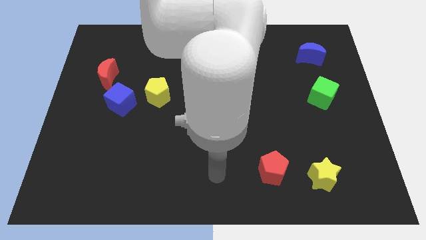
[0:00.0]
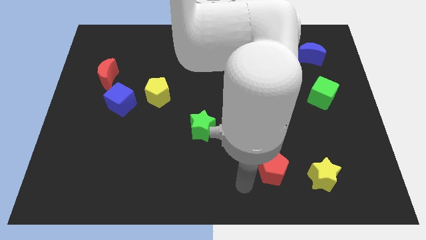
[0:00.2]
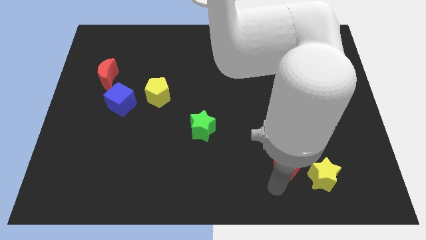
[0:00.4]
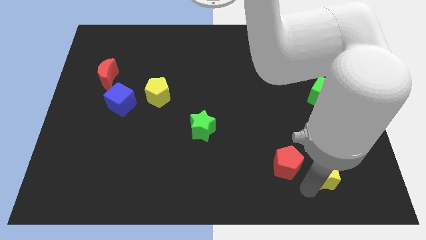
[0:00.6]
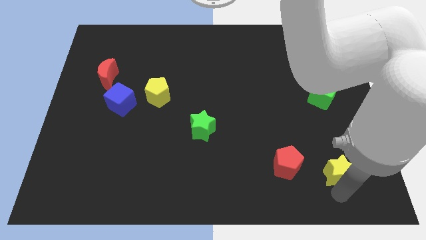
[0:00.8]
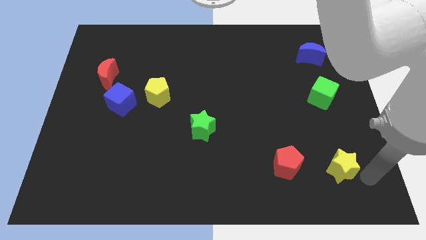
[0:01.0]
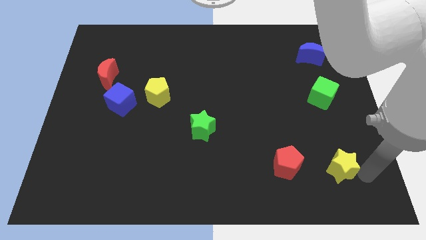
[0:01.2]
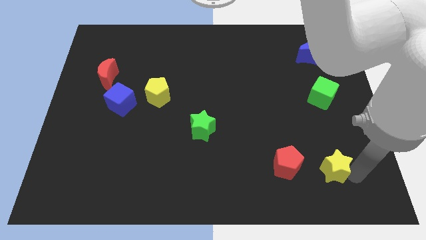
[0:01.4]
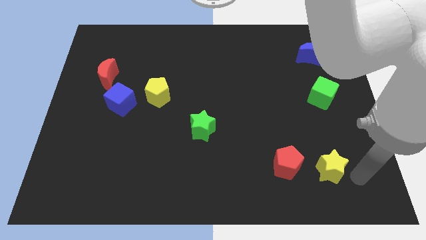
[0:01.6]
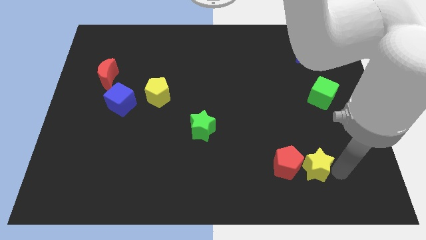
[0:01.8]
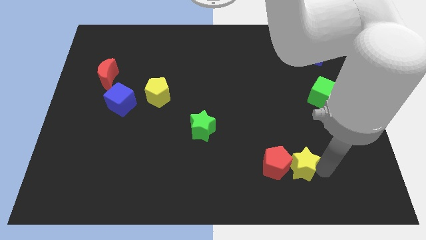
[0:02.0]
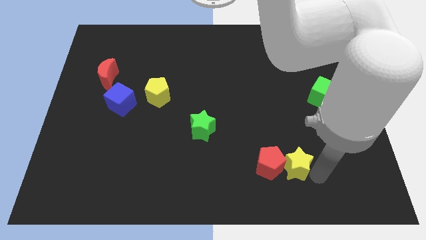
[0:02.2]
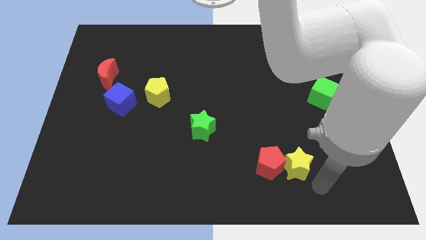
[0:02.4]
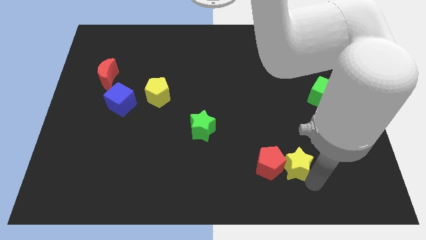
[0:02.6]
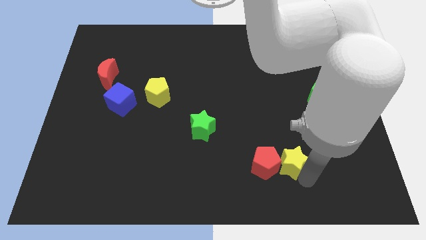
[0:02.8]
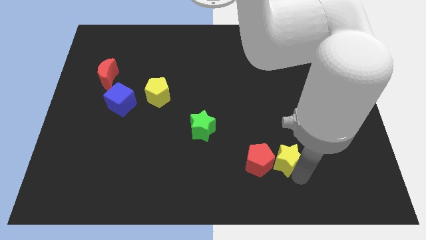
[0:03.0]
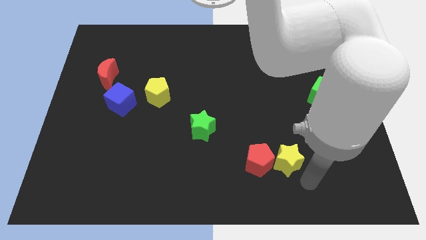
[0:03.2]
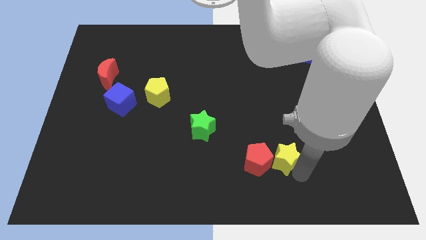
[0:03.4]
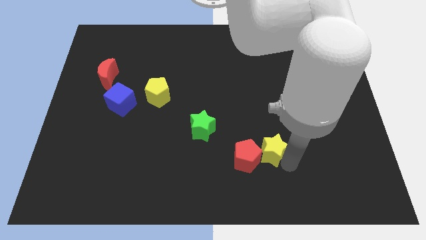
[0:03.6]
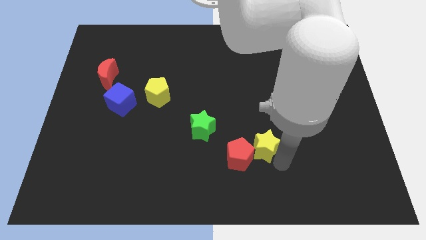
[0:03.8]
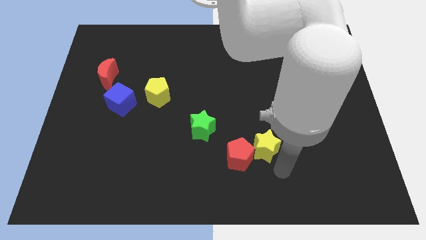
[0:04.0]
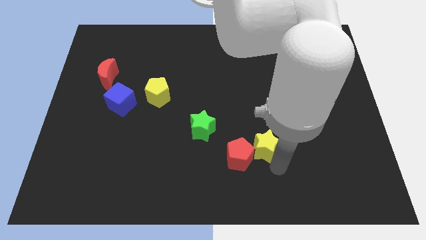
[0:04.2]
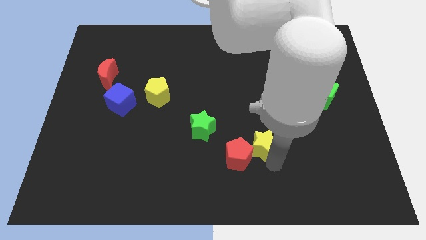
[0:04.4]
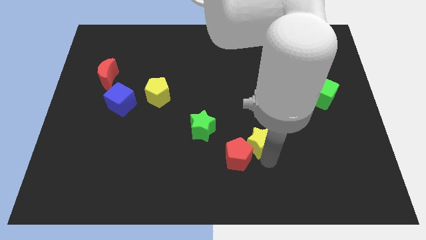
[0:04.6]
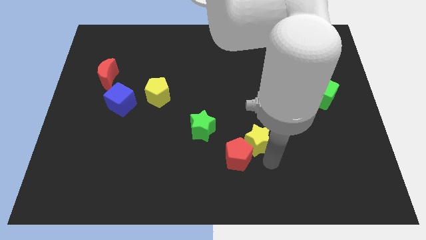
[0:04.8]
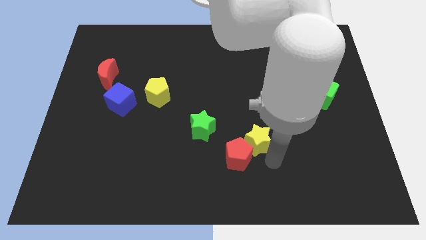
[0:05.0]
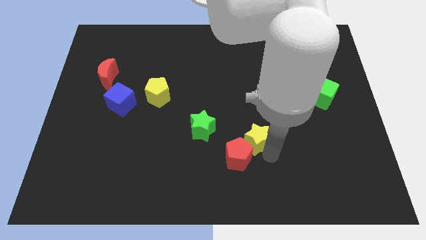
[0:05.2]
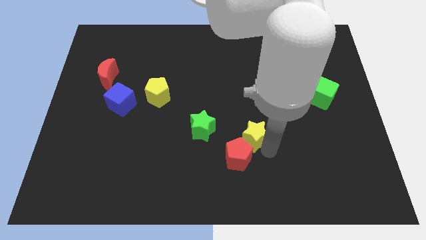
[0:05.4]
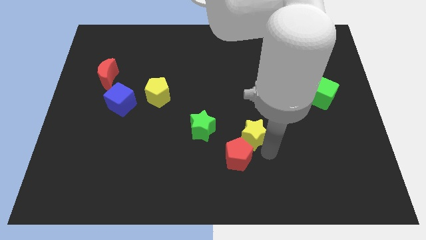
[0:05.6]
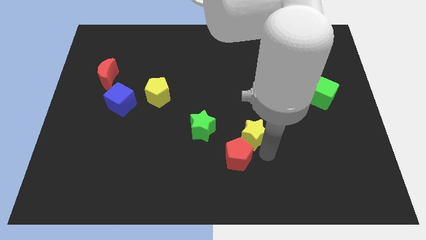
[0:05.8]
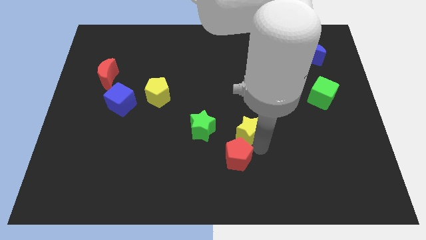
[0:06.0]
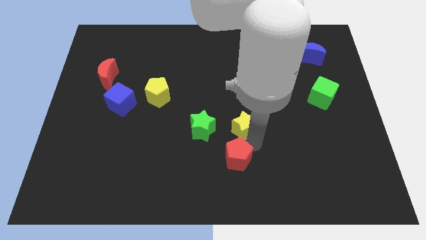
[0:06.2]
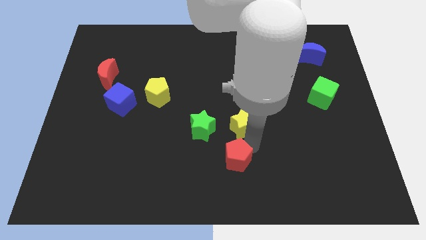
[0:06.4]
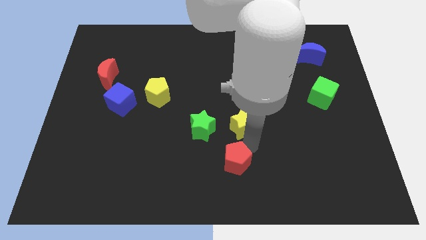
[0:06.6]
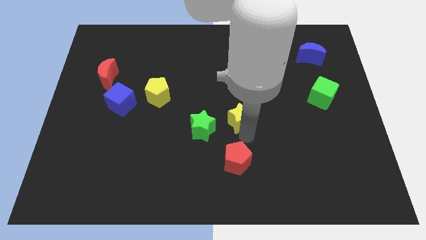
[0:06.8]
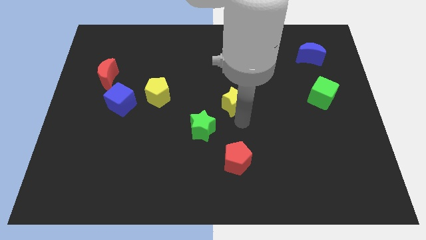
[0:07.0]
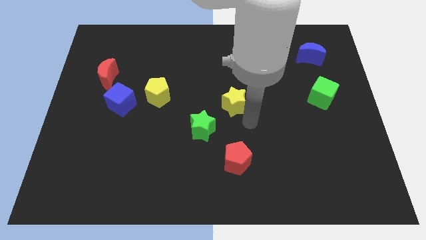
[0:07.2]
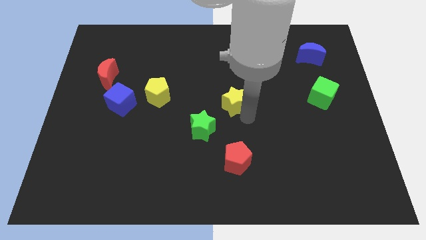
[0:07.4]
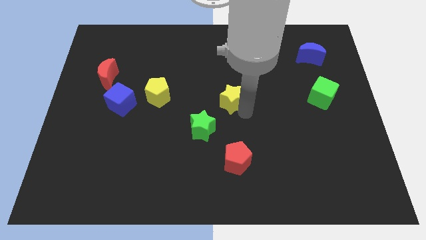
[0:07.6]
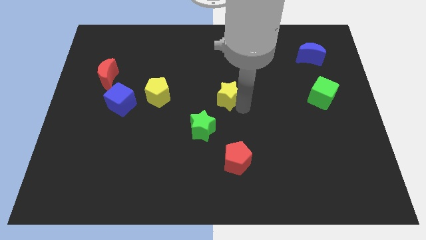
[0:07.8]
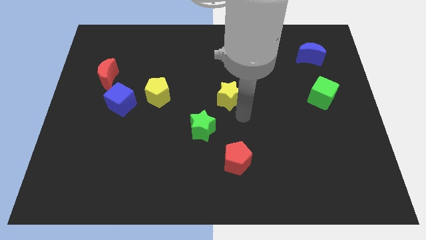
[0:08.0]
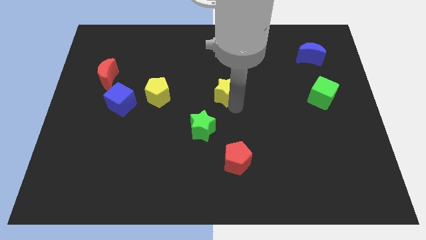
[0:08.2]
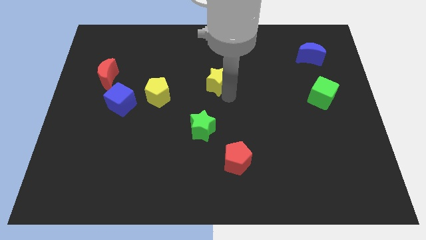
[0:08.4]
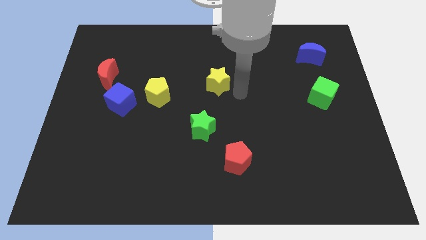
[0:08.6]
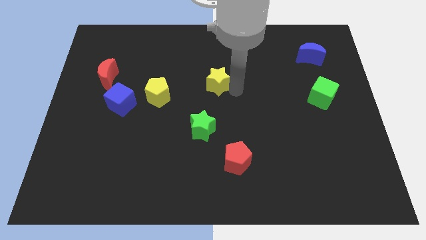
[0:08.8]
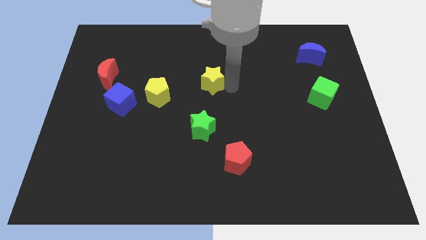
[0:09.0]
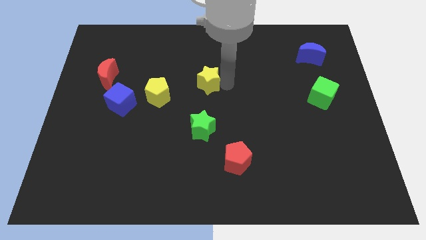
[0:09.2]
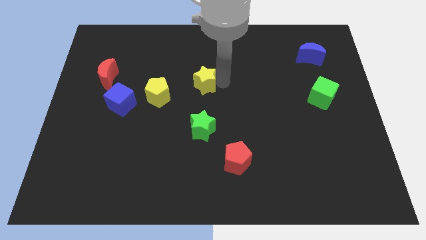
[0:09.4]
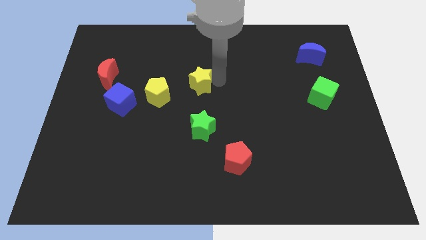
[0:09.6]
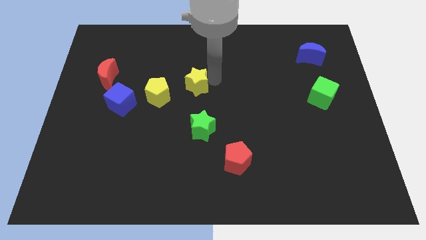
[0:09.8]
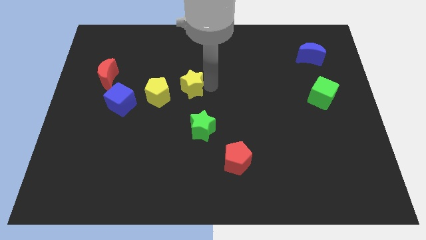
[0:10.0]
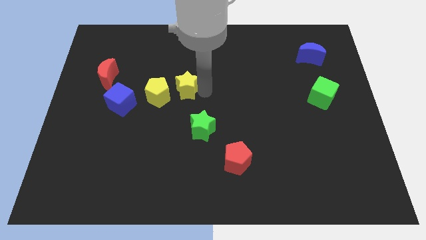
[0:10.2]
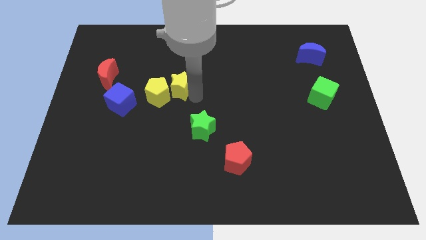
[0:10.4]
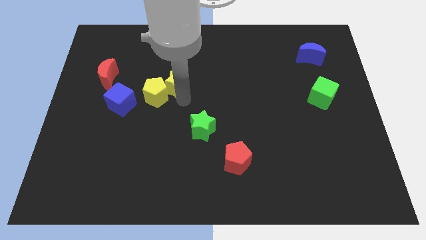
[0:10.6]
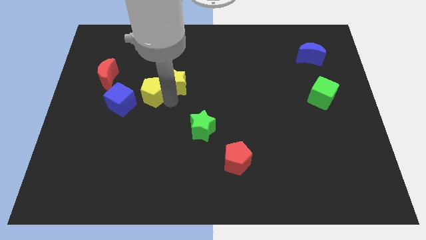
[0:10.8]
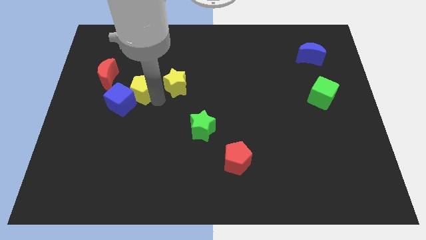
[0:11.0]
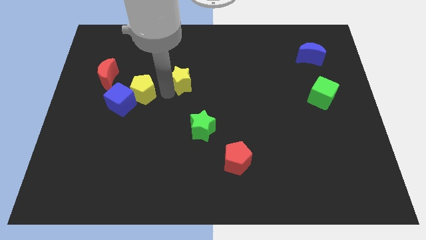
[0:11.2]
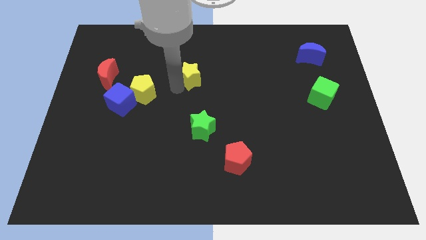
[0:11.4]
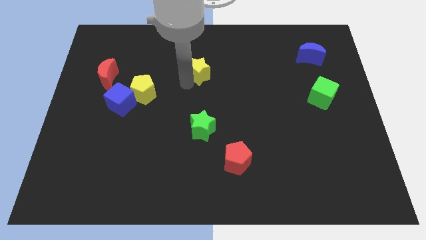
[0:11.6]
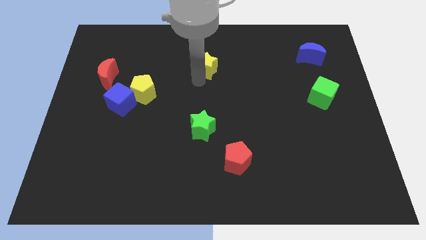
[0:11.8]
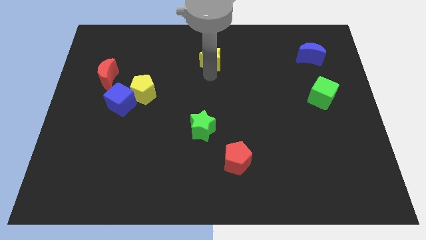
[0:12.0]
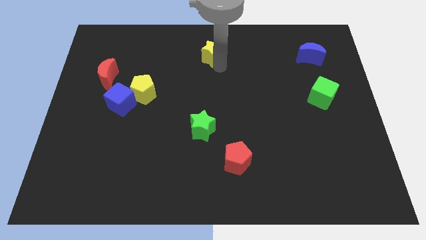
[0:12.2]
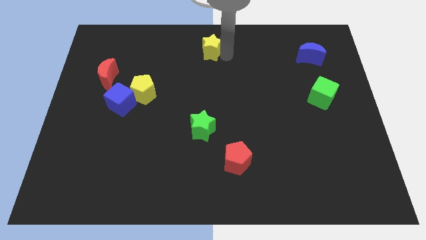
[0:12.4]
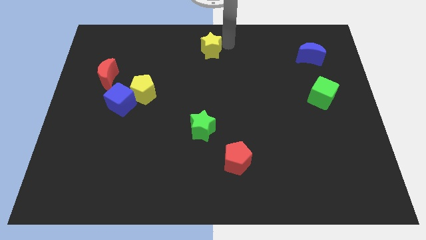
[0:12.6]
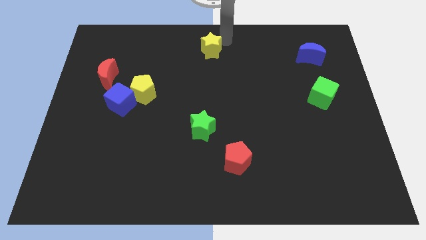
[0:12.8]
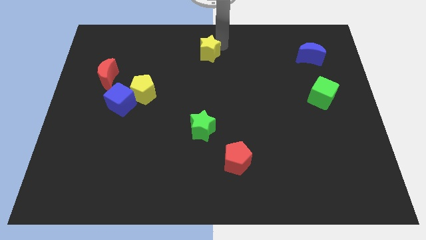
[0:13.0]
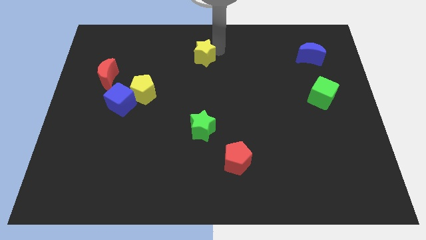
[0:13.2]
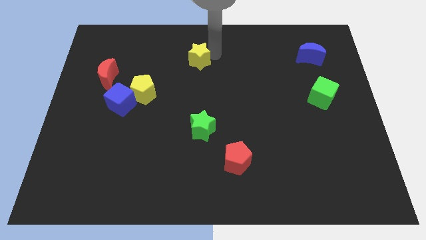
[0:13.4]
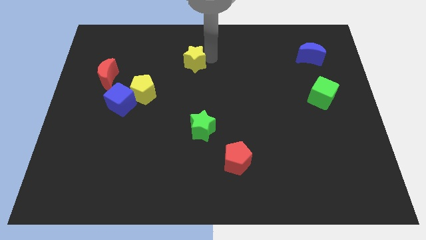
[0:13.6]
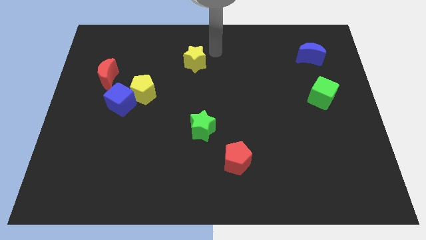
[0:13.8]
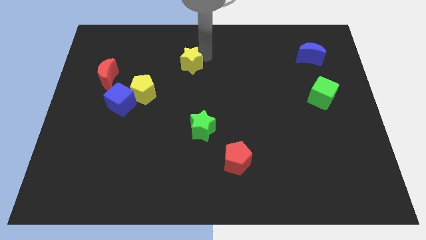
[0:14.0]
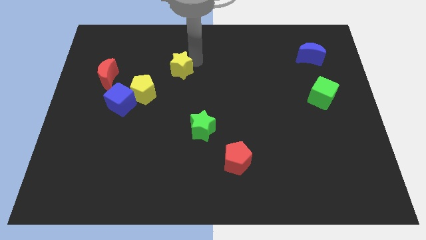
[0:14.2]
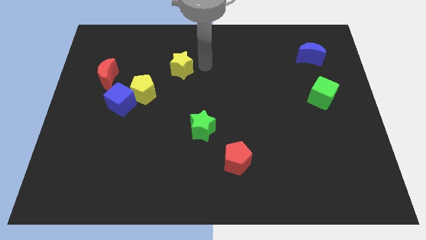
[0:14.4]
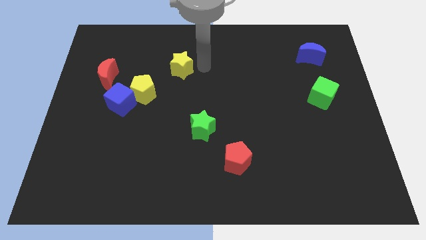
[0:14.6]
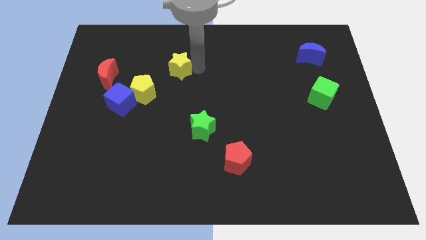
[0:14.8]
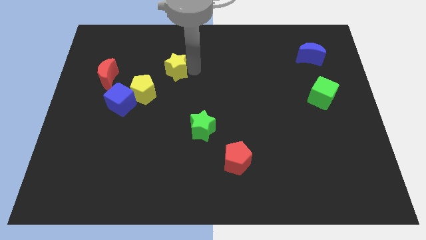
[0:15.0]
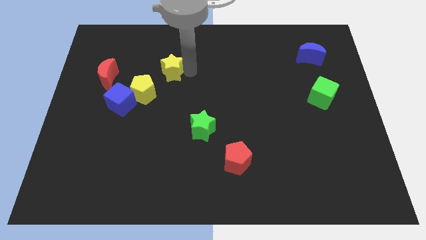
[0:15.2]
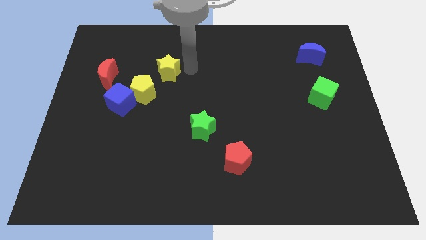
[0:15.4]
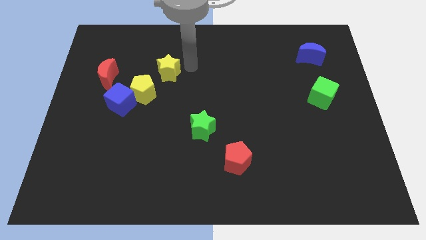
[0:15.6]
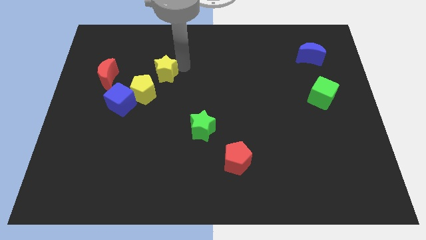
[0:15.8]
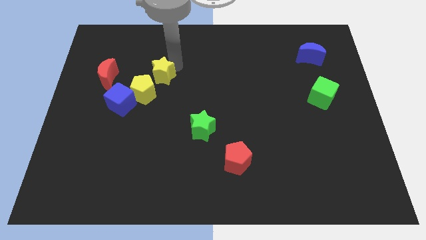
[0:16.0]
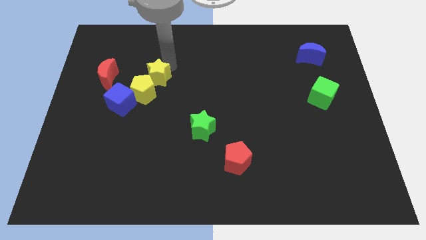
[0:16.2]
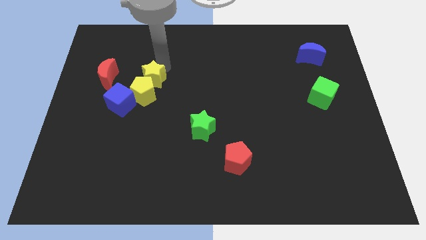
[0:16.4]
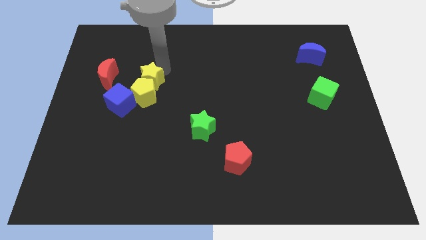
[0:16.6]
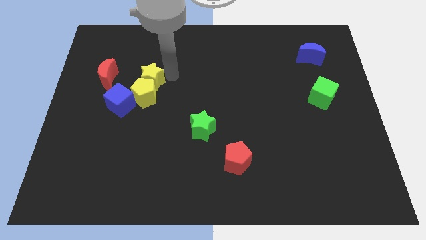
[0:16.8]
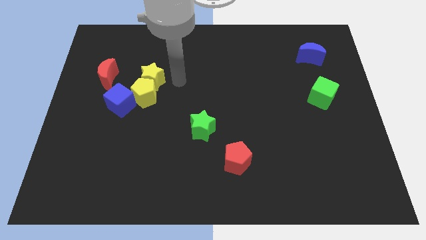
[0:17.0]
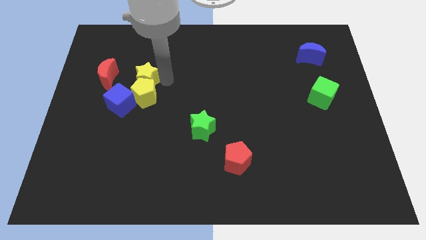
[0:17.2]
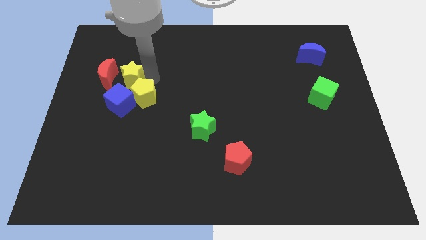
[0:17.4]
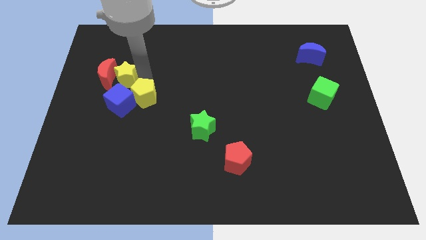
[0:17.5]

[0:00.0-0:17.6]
push the yellow star to the red moon
